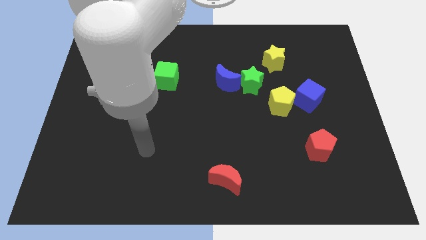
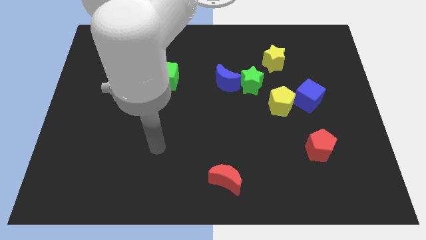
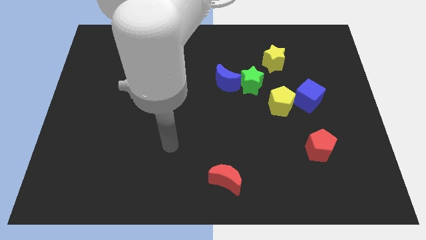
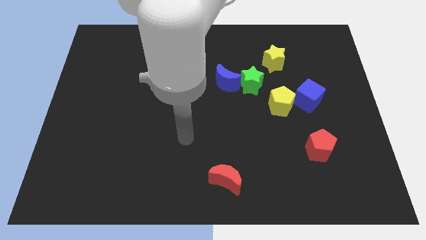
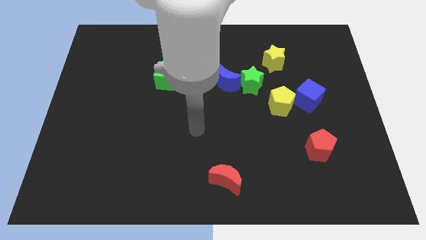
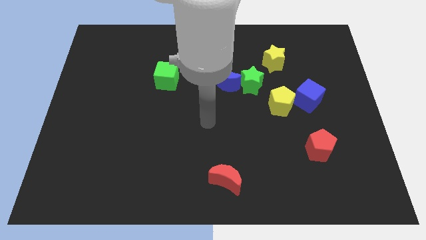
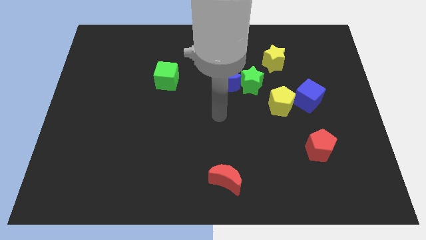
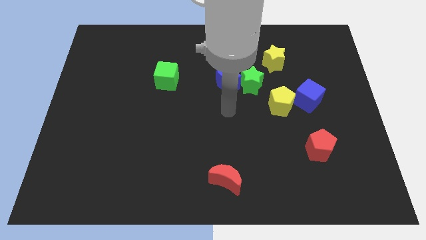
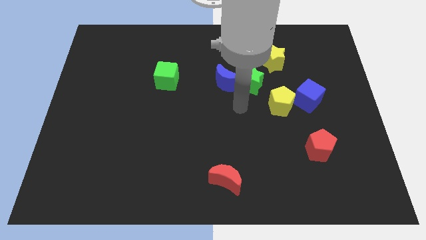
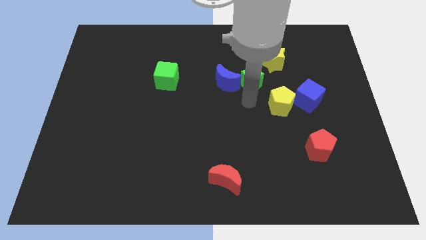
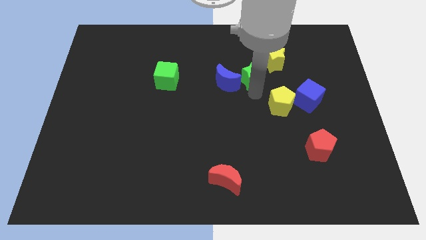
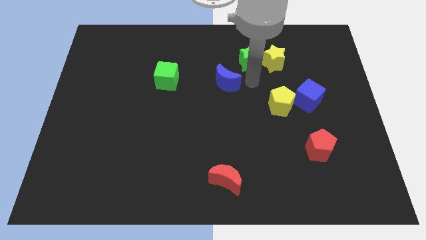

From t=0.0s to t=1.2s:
pull the blue moon apart from the green star

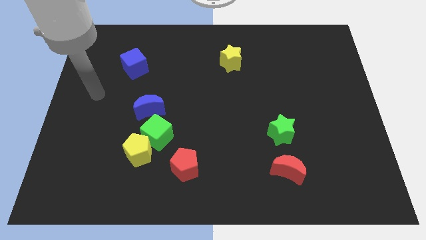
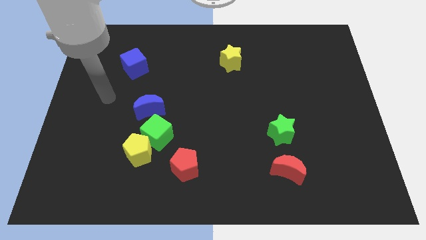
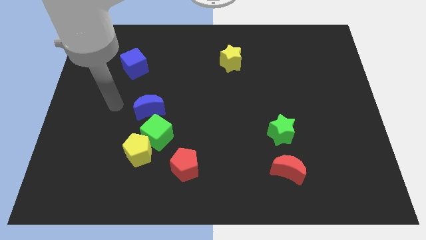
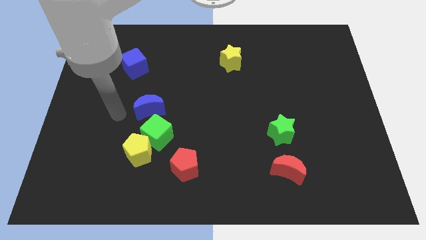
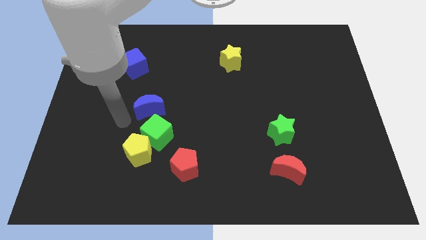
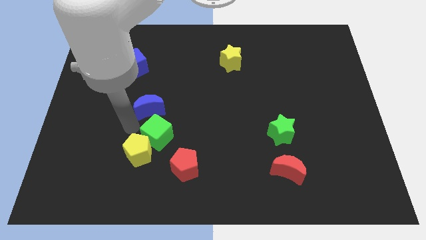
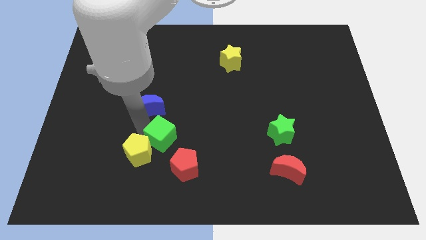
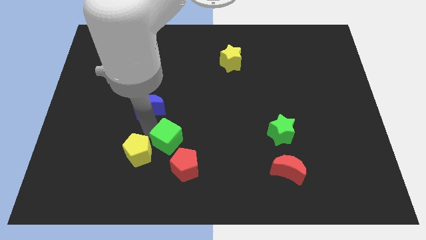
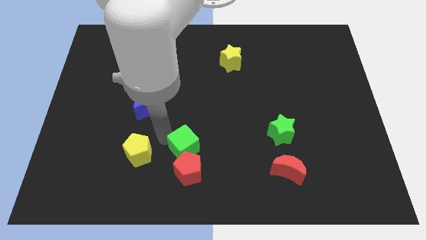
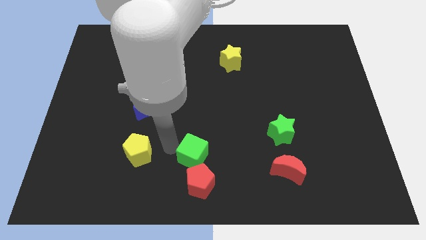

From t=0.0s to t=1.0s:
pull the yellow pentagon apart from the green cube

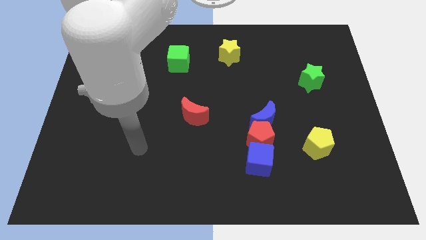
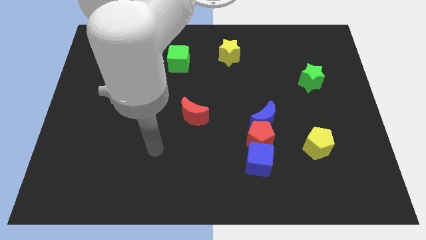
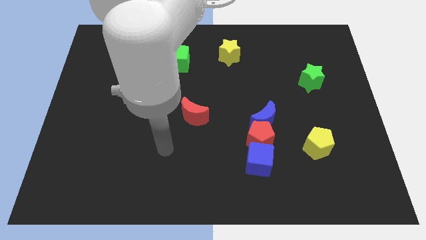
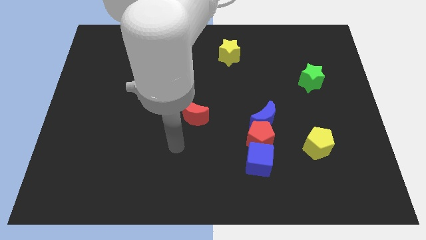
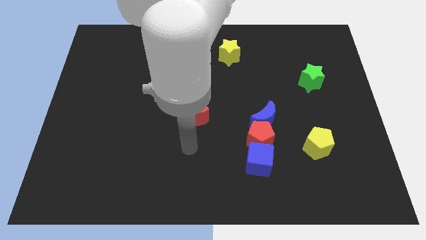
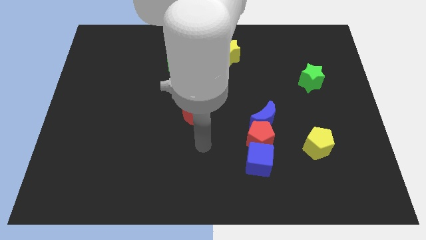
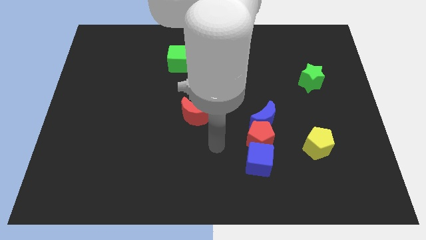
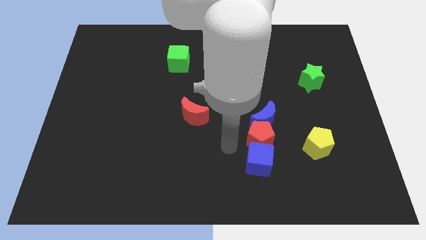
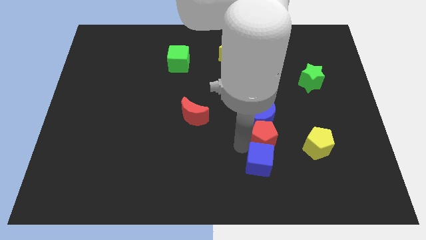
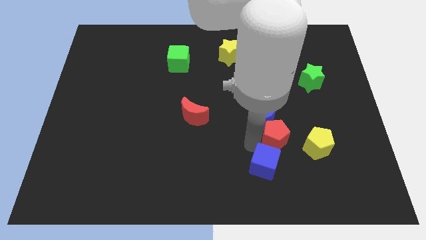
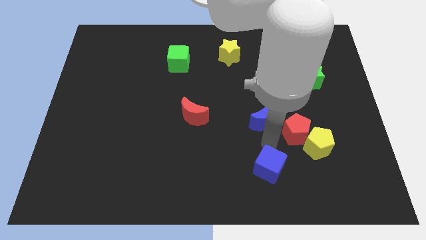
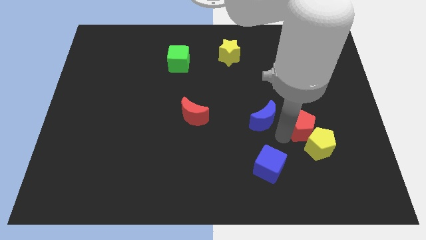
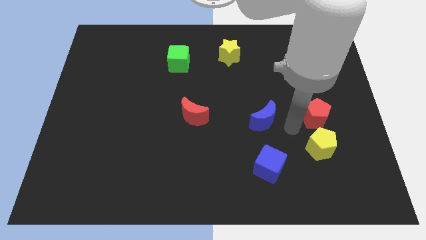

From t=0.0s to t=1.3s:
pull the blue moon apart from the red pentagon

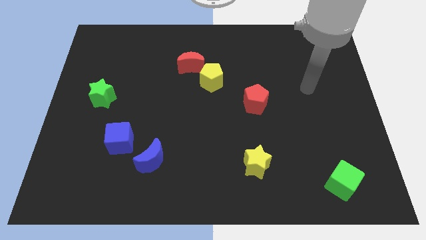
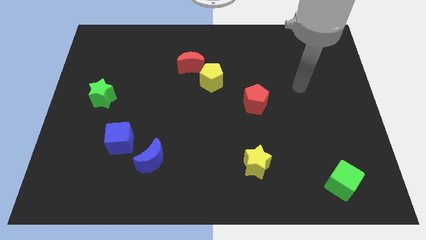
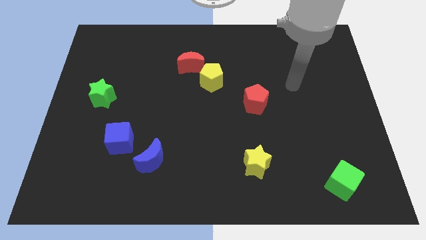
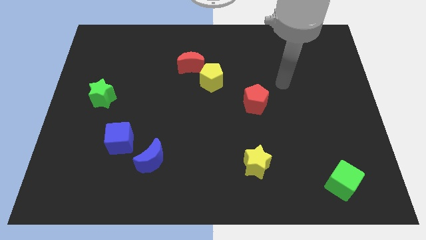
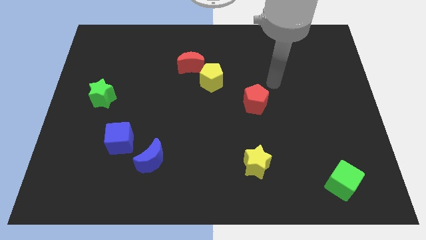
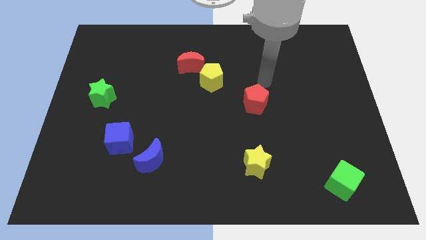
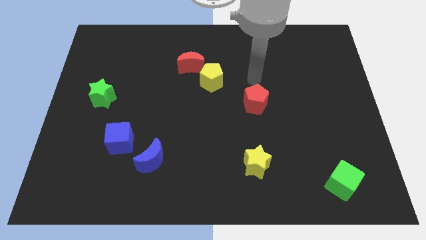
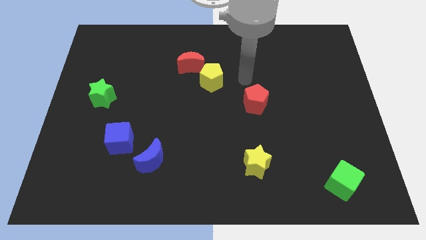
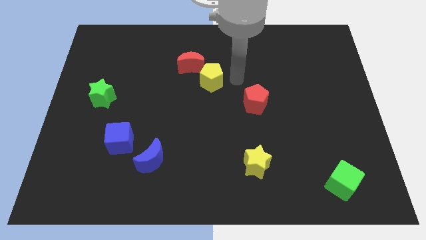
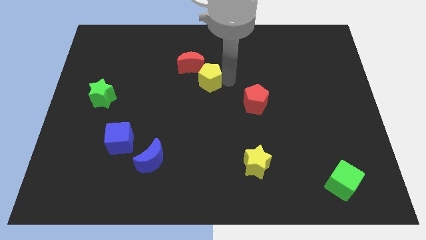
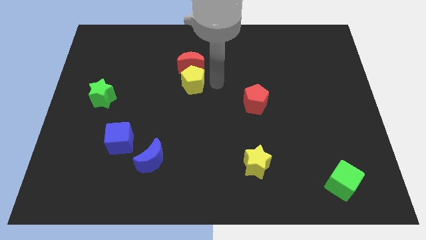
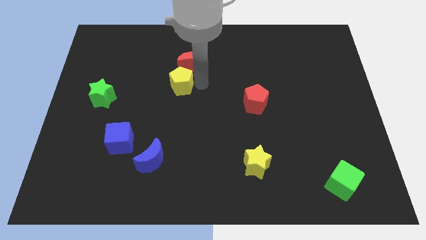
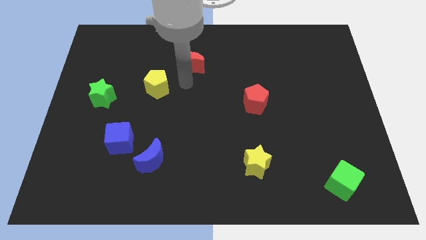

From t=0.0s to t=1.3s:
pull the red moon apart from the yellow pentagon

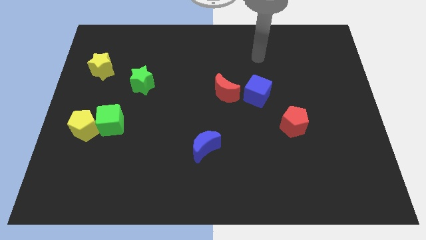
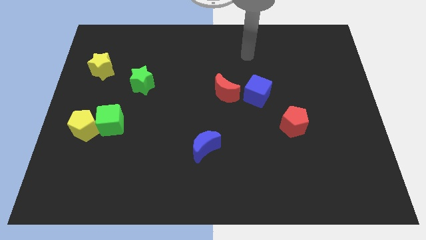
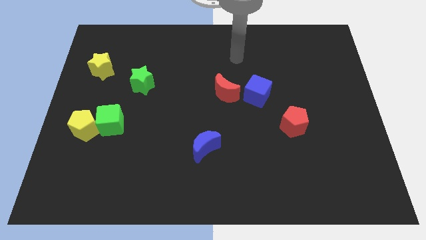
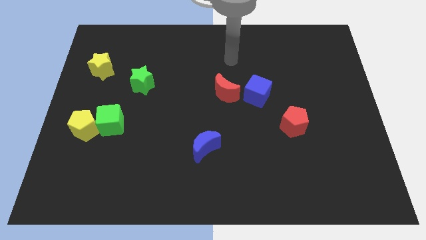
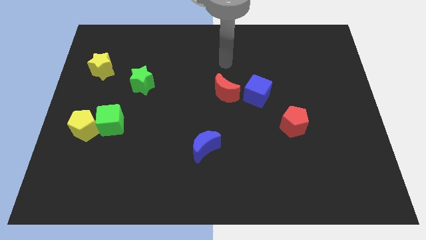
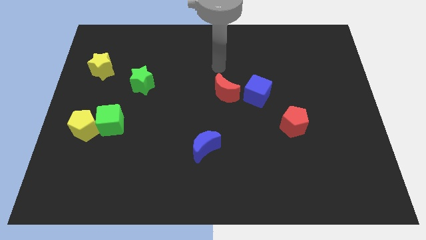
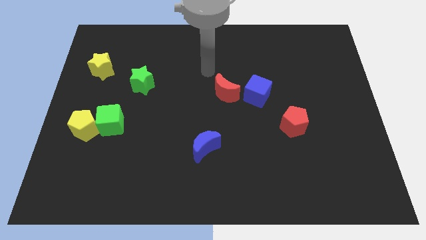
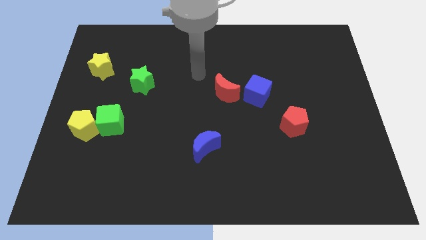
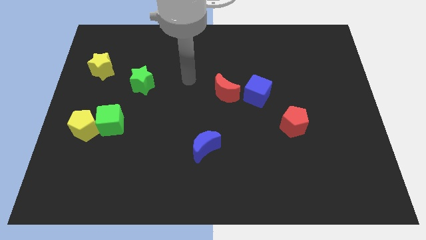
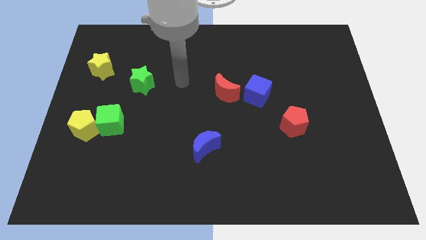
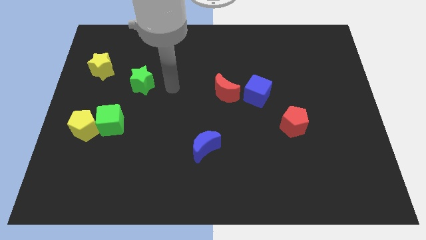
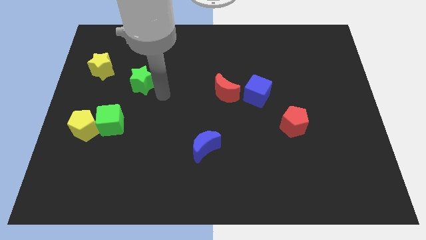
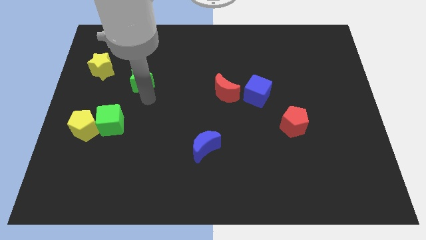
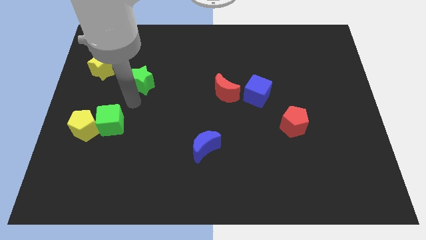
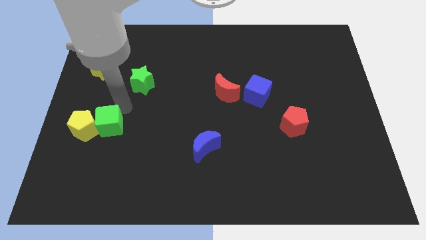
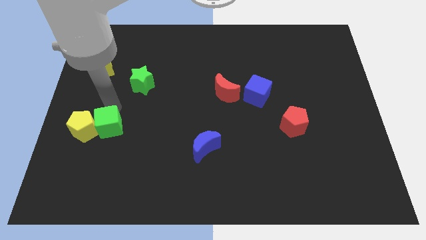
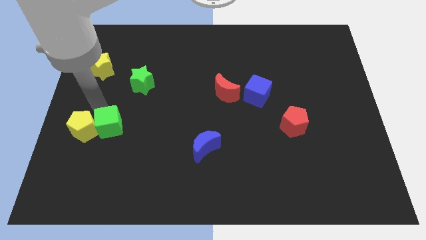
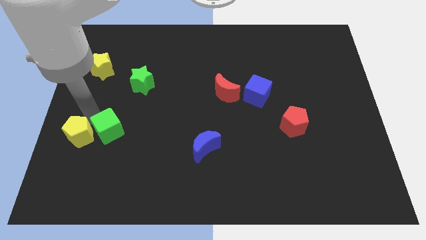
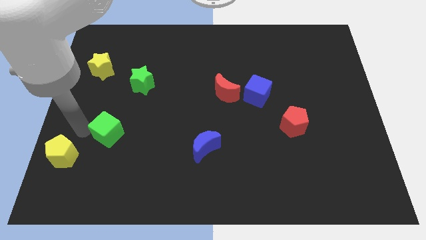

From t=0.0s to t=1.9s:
pull the green cube apart from the yellow pentagon

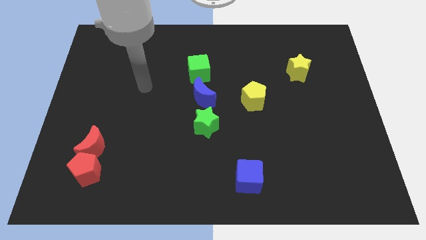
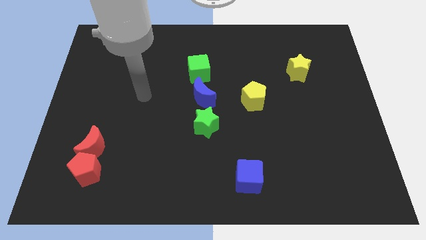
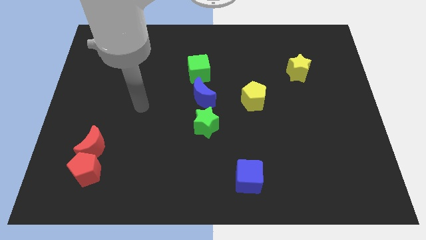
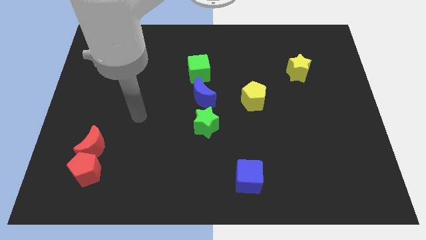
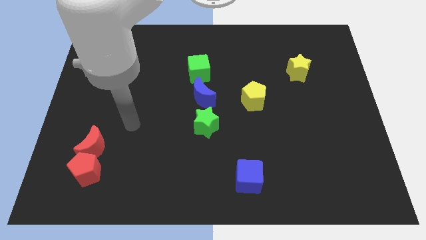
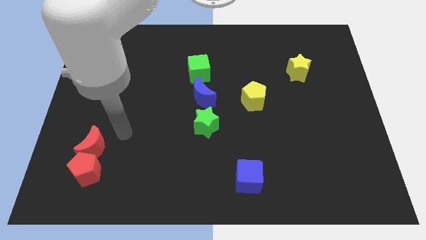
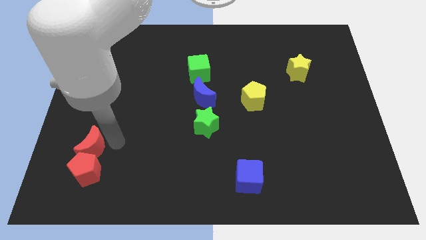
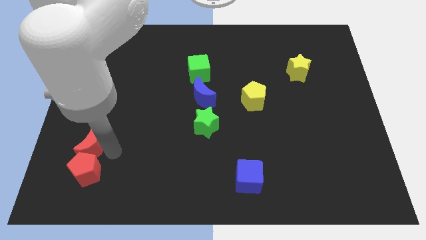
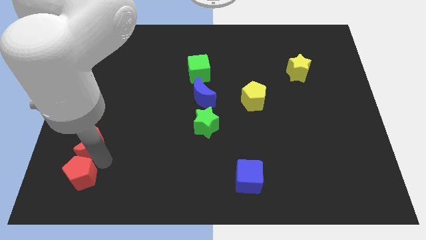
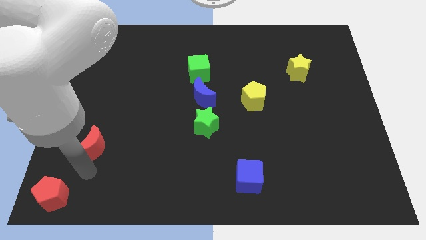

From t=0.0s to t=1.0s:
separate the red moon from the red pentagon

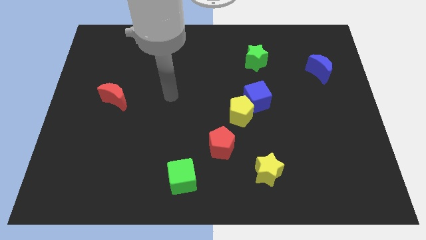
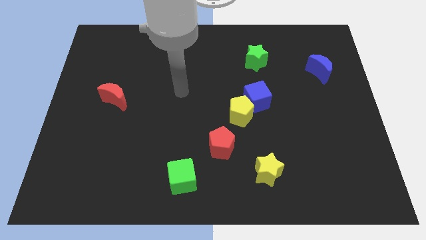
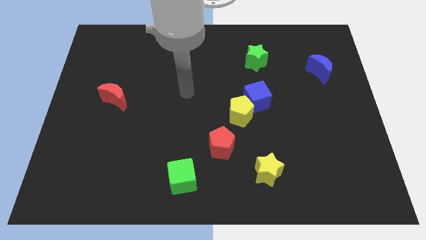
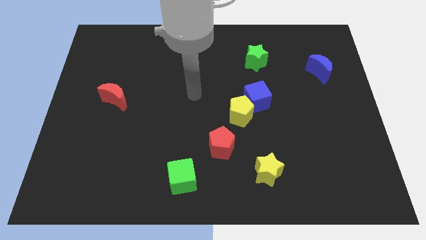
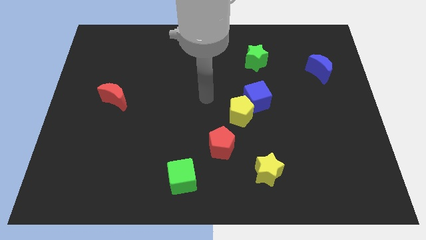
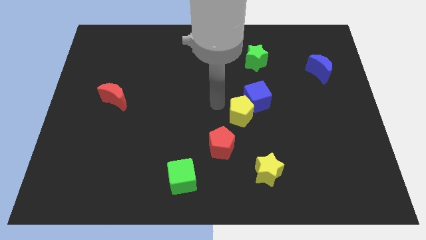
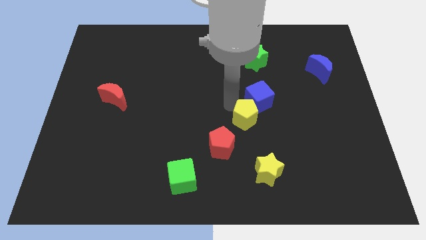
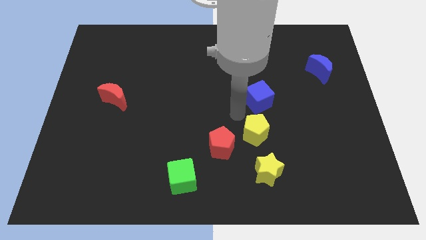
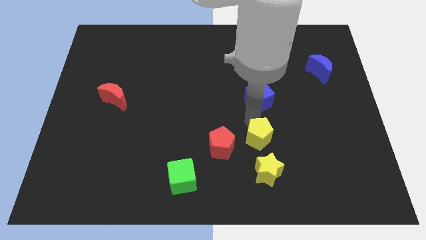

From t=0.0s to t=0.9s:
pull the blue cube apart from the yellow pentagon

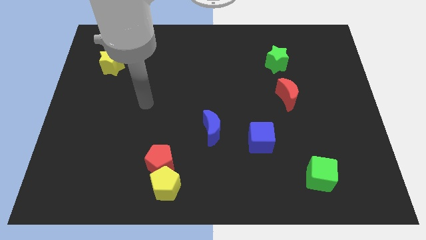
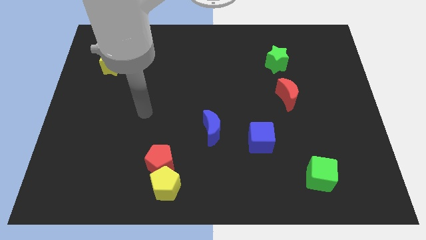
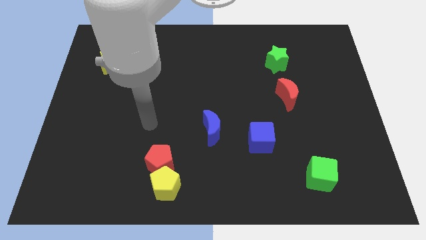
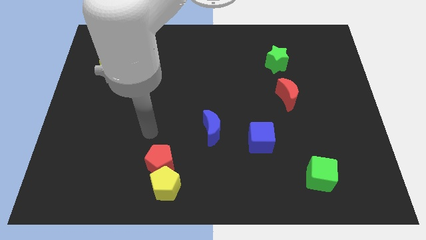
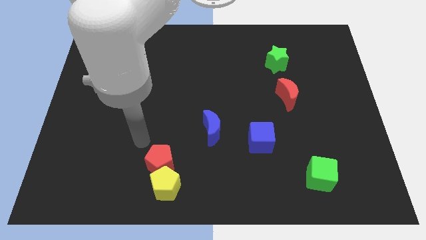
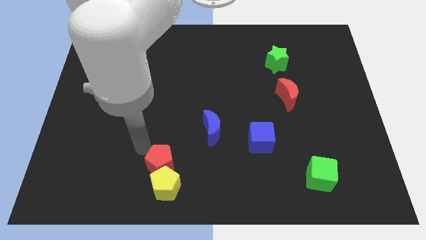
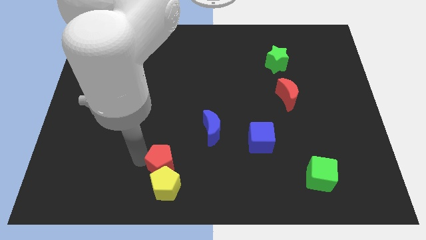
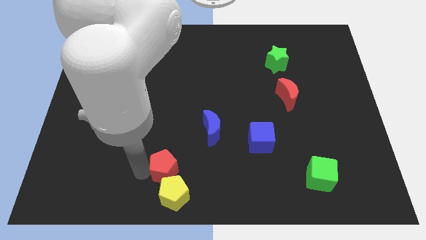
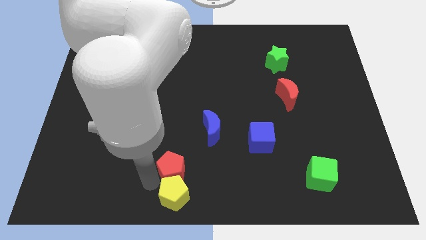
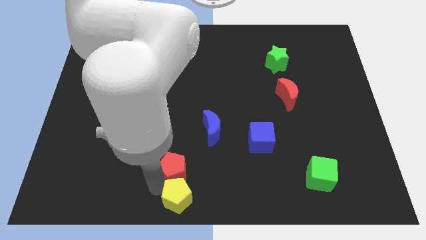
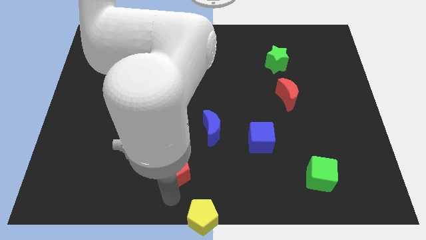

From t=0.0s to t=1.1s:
separate the red pentagon from the yellow pentagon
